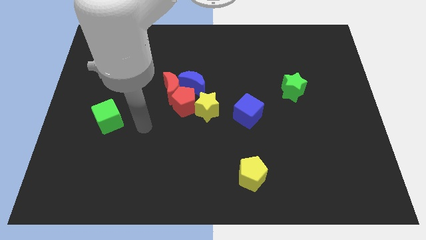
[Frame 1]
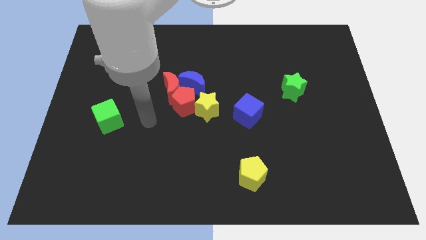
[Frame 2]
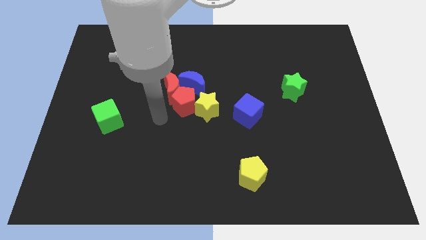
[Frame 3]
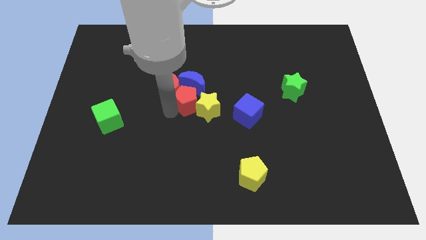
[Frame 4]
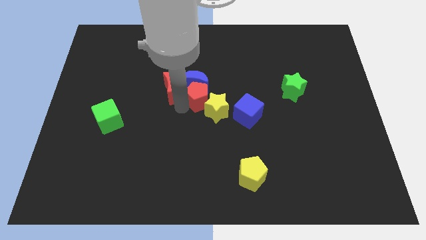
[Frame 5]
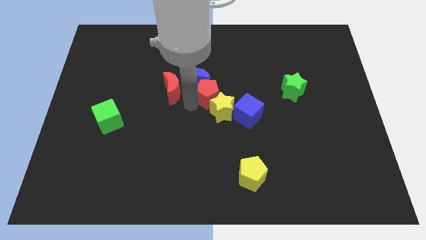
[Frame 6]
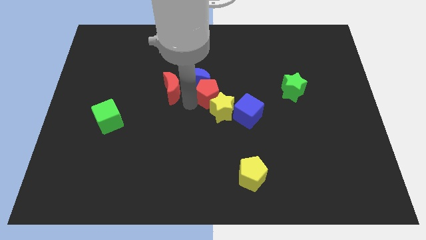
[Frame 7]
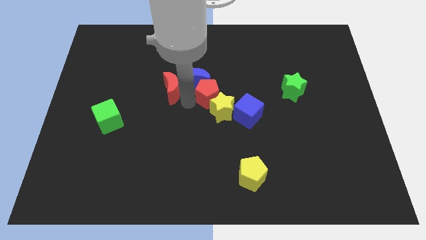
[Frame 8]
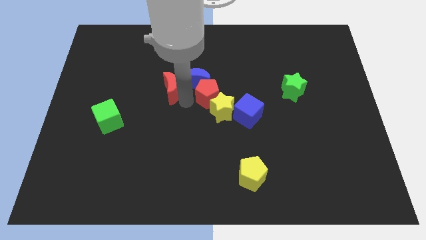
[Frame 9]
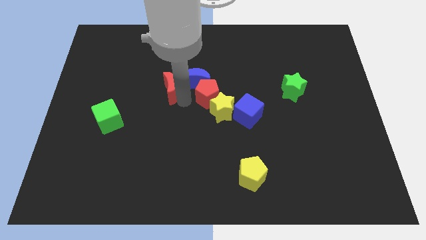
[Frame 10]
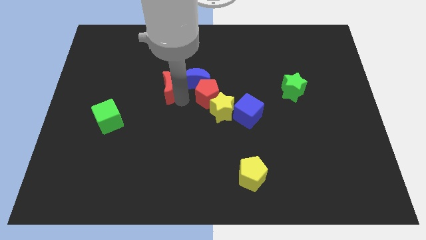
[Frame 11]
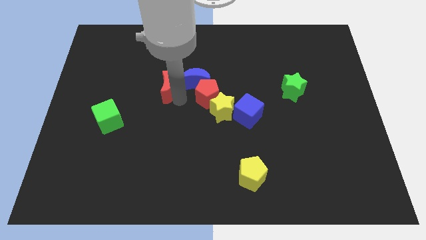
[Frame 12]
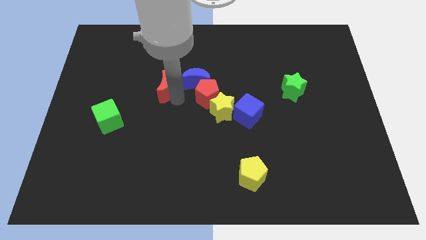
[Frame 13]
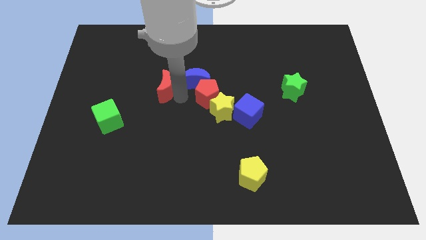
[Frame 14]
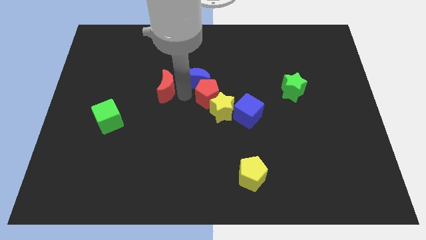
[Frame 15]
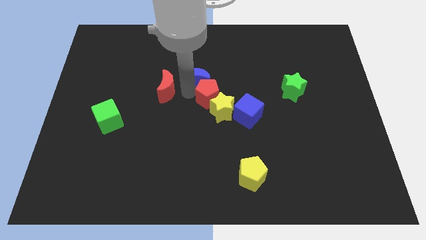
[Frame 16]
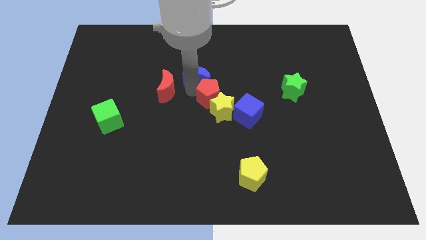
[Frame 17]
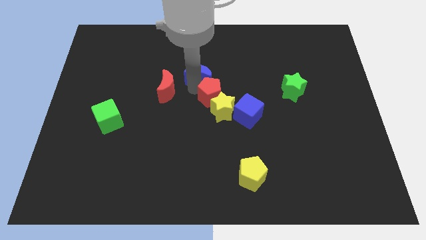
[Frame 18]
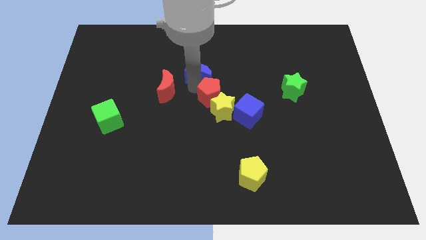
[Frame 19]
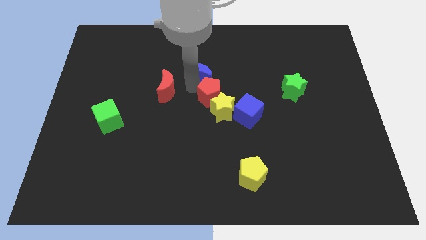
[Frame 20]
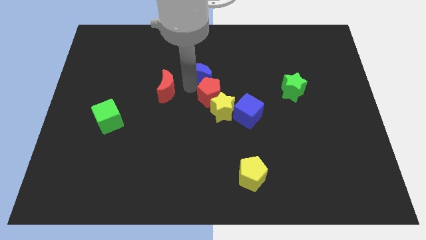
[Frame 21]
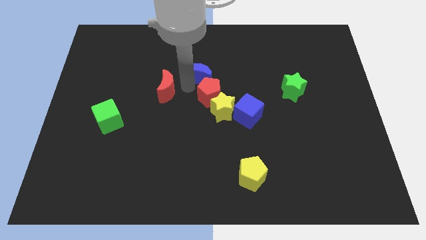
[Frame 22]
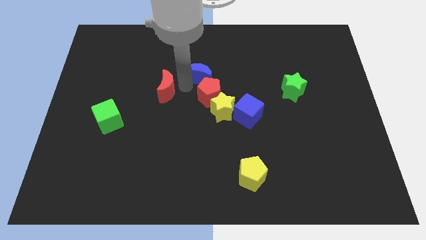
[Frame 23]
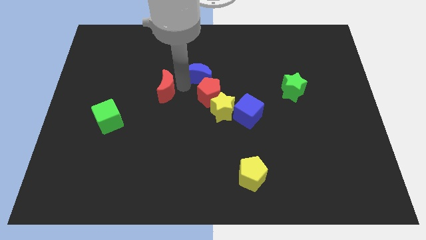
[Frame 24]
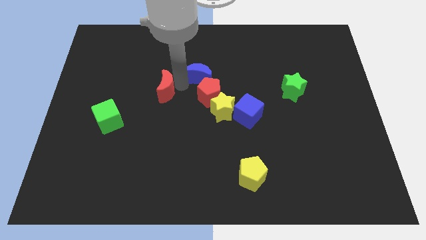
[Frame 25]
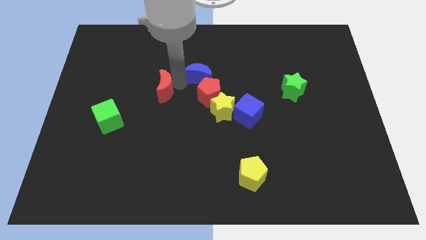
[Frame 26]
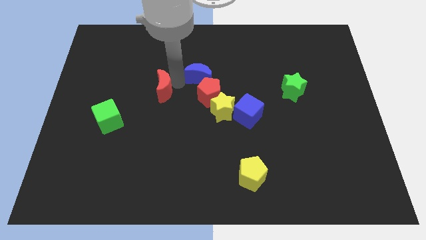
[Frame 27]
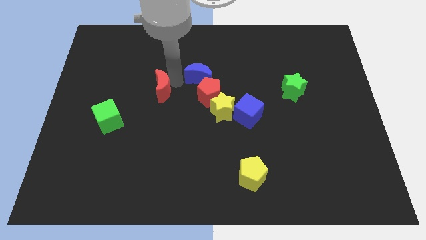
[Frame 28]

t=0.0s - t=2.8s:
pull the red moon apart from the red pentagon and blue moon

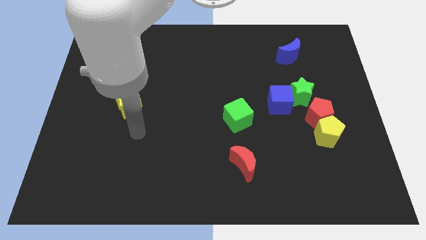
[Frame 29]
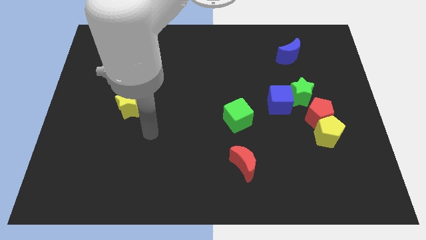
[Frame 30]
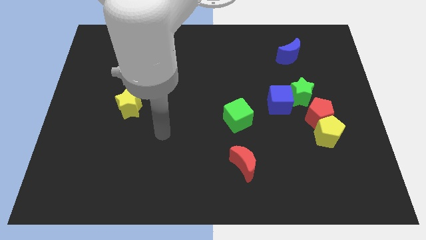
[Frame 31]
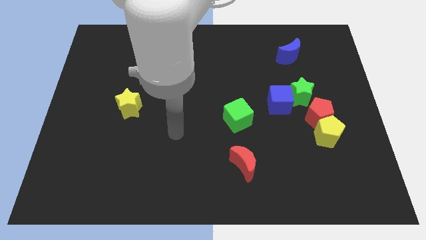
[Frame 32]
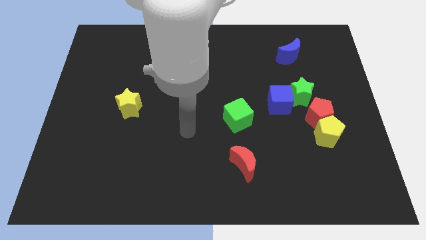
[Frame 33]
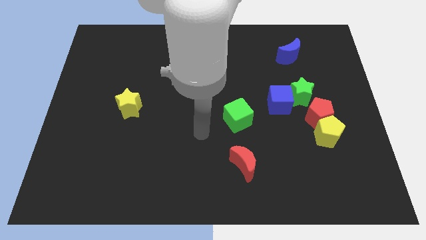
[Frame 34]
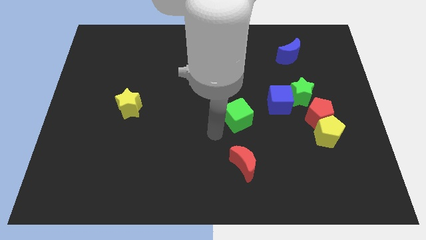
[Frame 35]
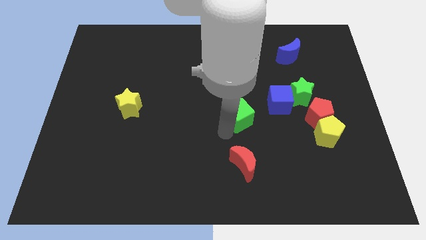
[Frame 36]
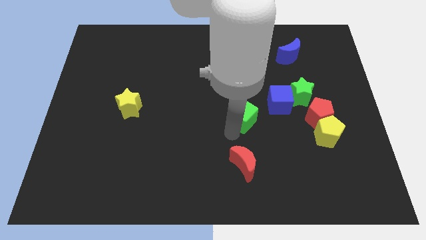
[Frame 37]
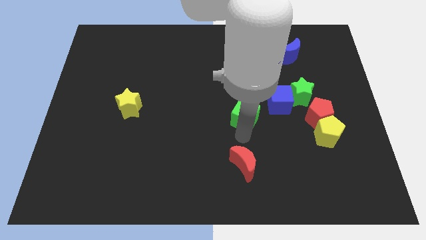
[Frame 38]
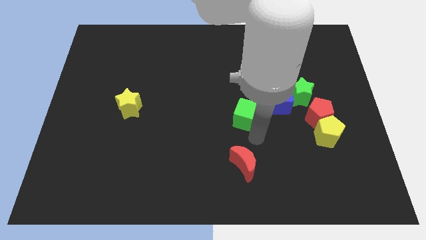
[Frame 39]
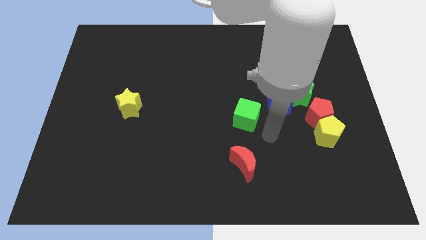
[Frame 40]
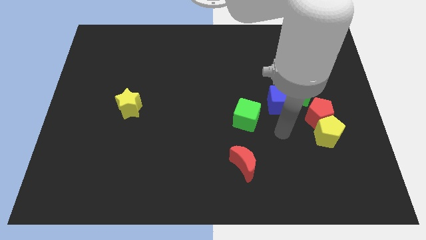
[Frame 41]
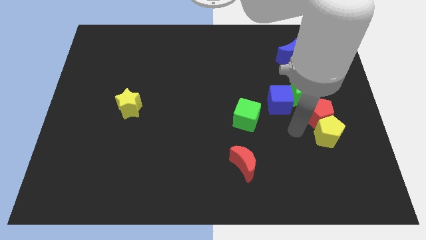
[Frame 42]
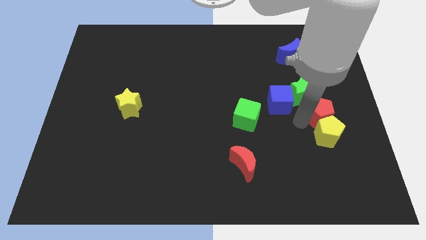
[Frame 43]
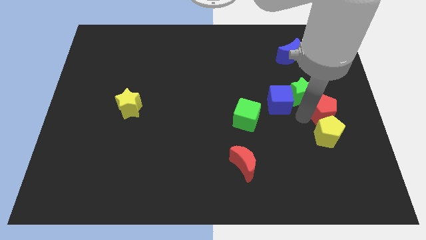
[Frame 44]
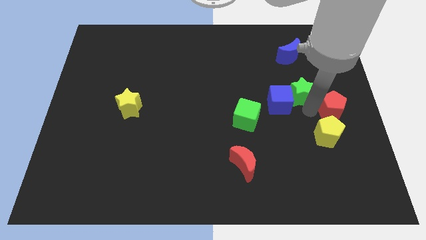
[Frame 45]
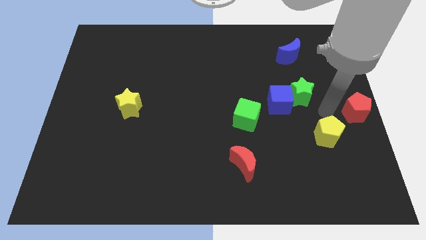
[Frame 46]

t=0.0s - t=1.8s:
separate the yellow pentagon from the red pentagon

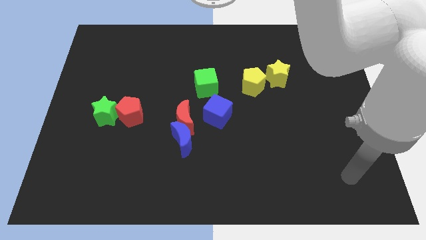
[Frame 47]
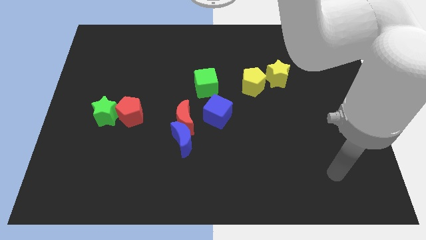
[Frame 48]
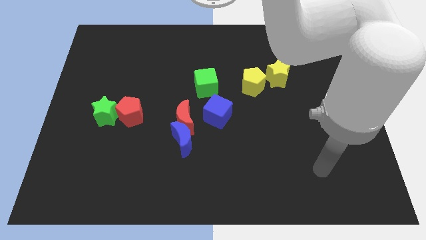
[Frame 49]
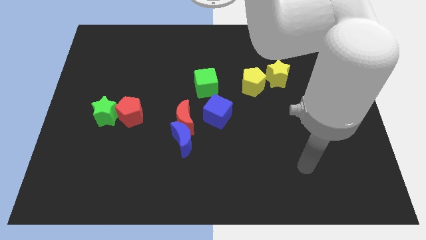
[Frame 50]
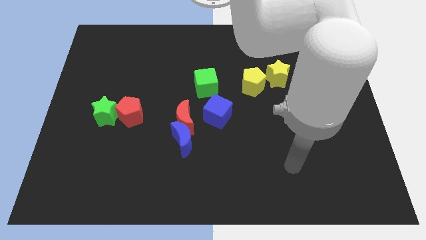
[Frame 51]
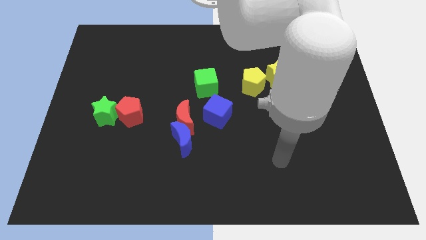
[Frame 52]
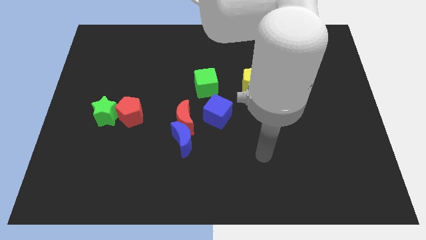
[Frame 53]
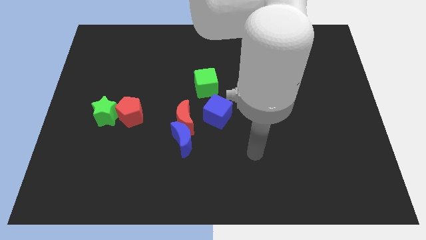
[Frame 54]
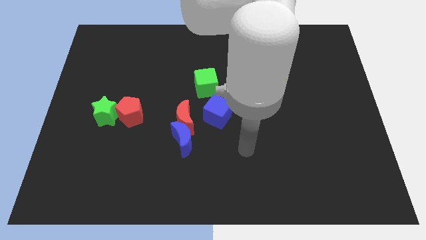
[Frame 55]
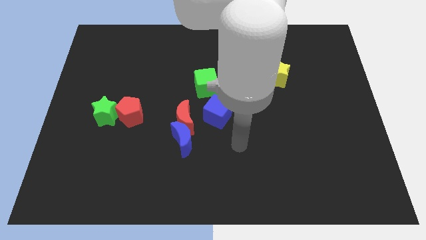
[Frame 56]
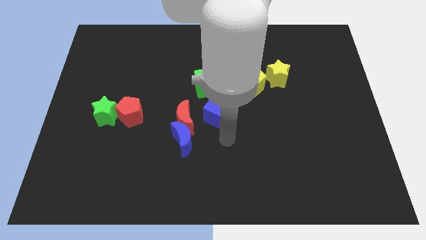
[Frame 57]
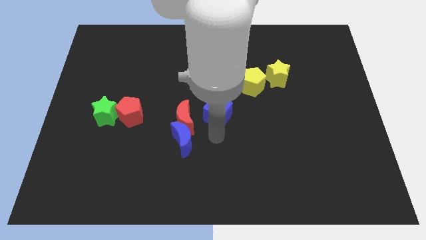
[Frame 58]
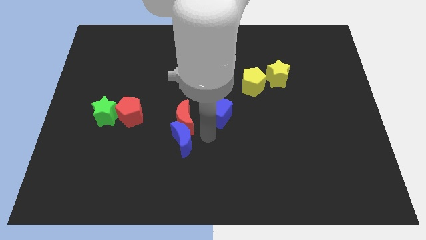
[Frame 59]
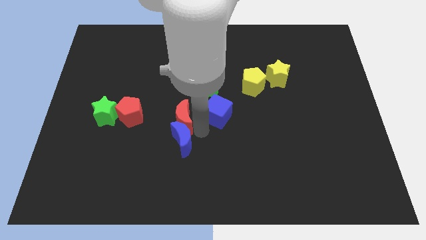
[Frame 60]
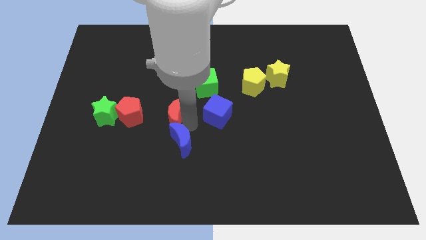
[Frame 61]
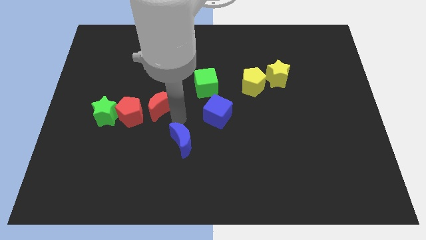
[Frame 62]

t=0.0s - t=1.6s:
separate the blue moon from the red moon

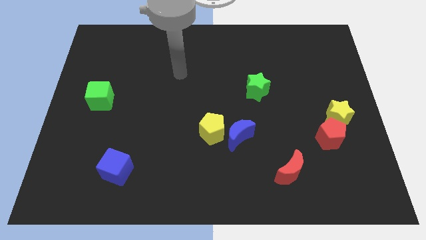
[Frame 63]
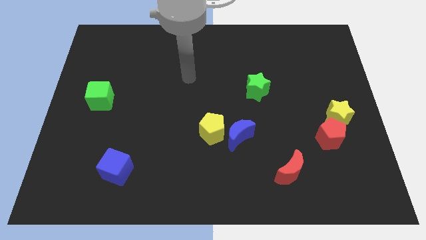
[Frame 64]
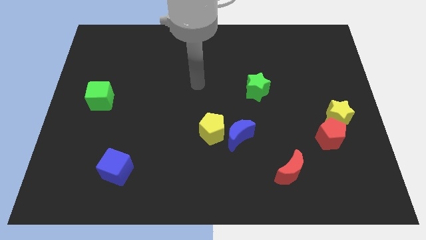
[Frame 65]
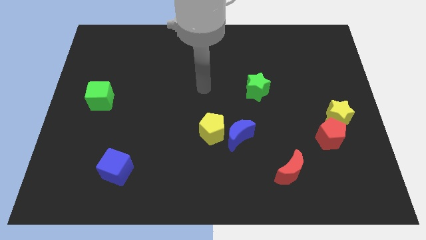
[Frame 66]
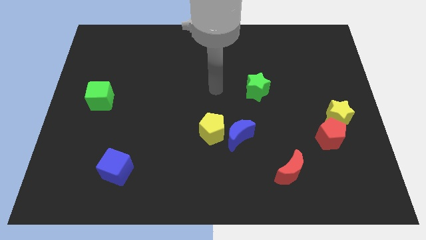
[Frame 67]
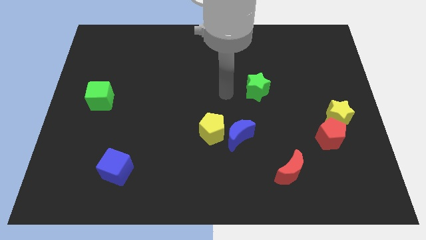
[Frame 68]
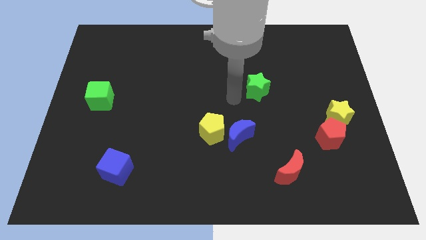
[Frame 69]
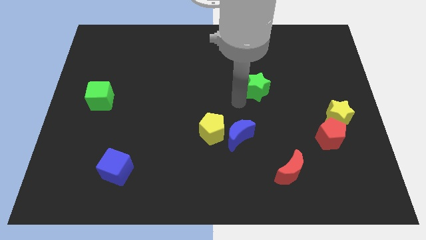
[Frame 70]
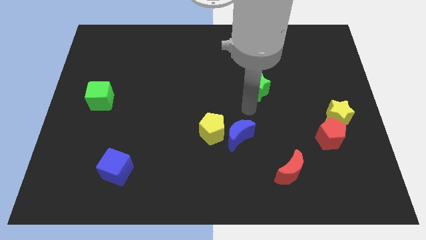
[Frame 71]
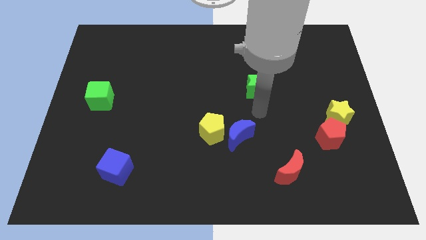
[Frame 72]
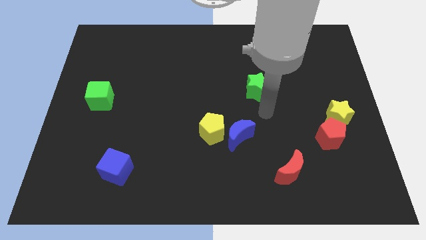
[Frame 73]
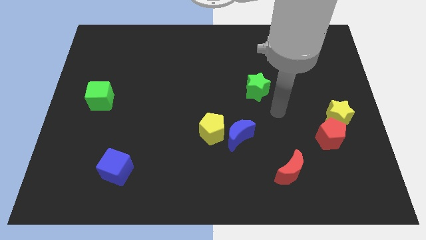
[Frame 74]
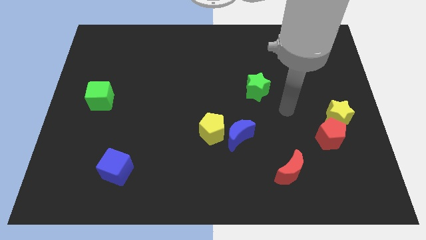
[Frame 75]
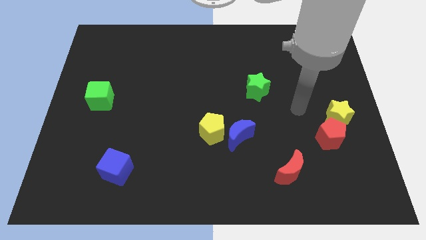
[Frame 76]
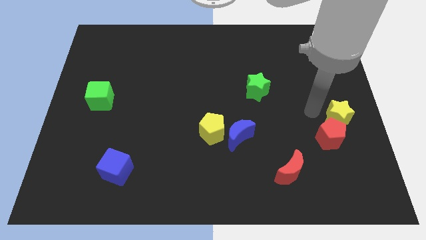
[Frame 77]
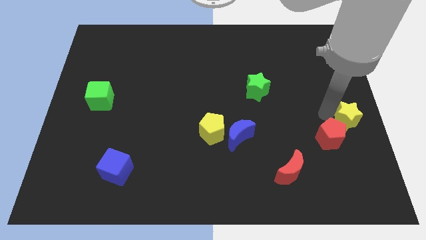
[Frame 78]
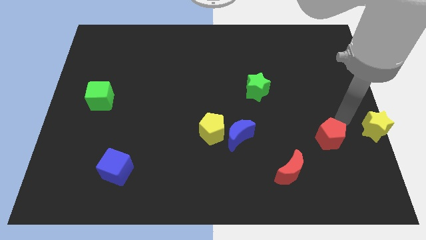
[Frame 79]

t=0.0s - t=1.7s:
separate the red pentagon from the yellow star

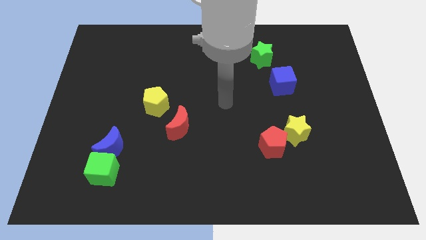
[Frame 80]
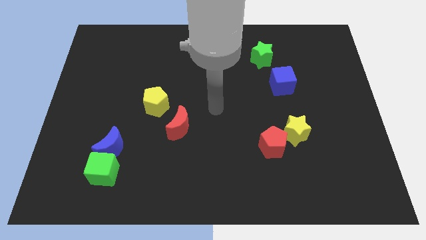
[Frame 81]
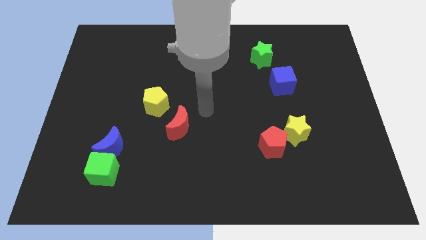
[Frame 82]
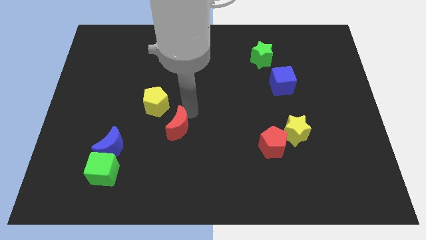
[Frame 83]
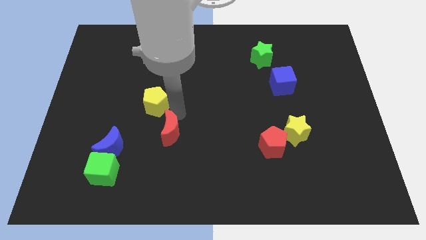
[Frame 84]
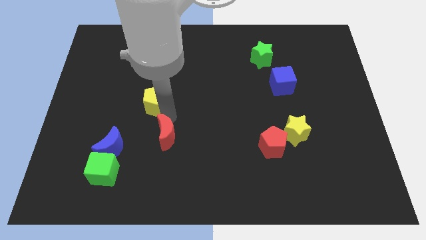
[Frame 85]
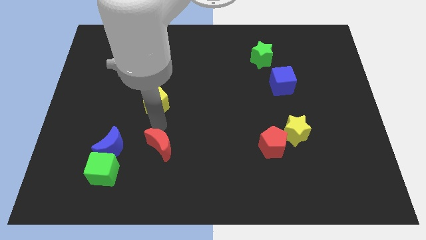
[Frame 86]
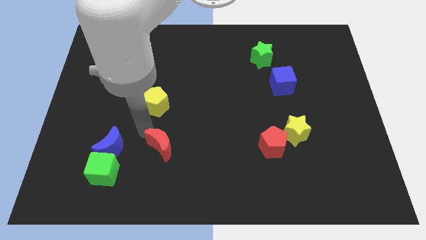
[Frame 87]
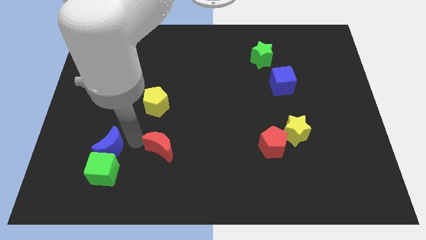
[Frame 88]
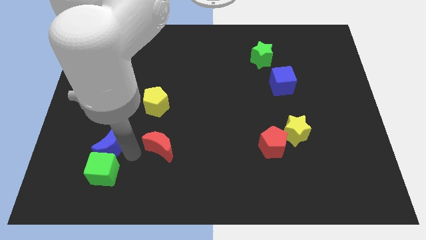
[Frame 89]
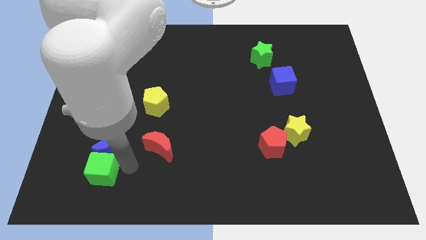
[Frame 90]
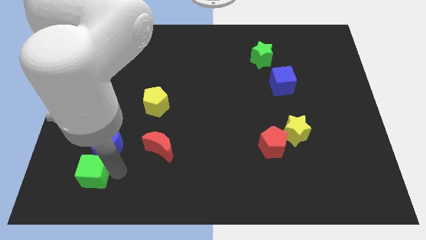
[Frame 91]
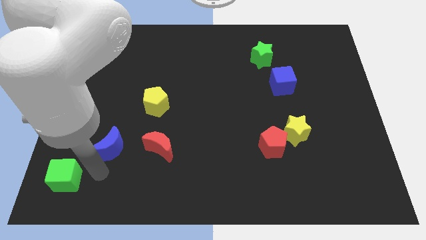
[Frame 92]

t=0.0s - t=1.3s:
move the blue moon away from the green cube
